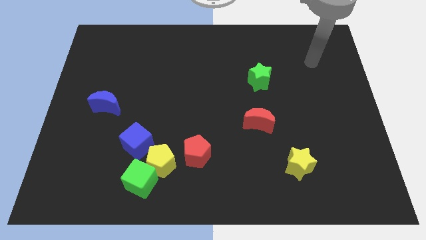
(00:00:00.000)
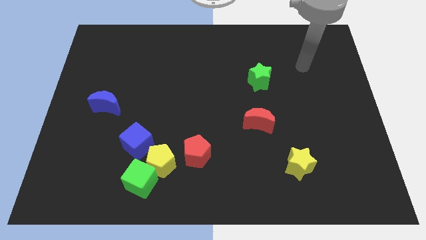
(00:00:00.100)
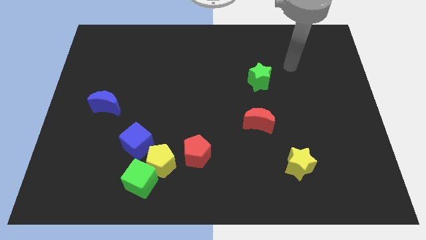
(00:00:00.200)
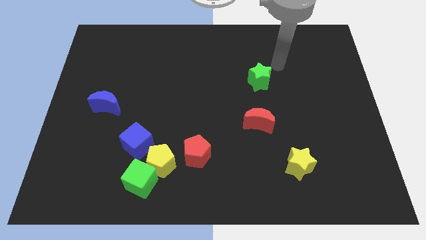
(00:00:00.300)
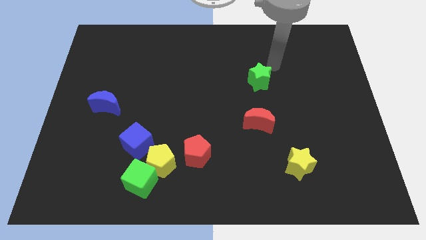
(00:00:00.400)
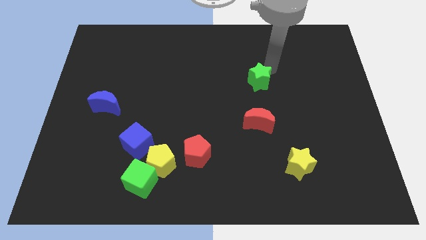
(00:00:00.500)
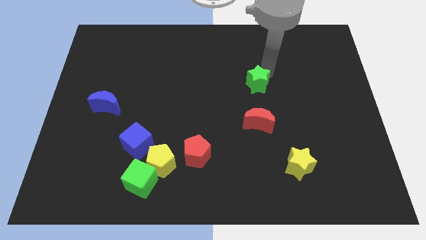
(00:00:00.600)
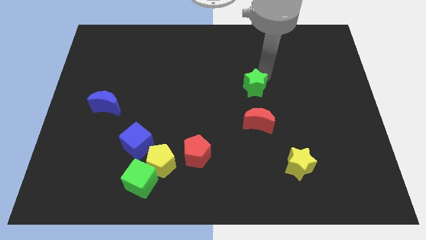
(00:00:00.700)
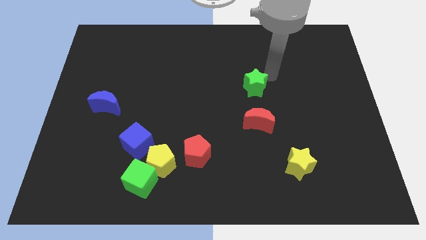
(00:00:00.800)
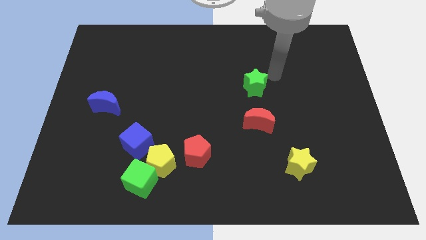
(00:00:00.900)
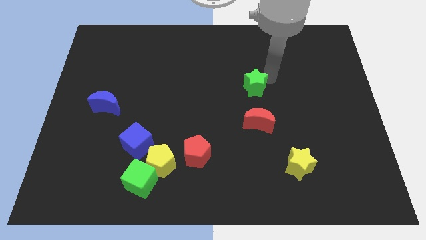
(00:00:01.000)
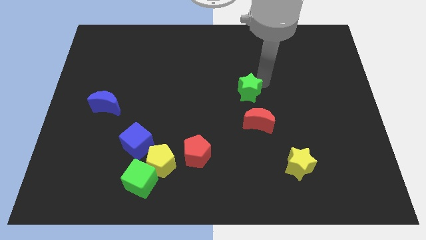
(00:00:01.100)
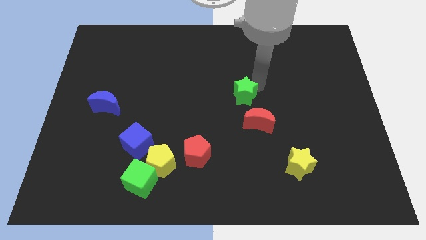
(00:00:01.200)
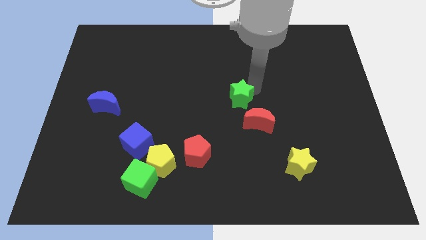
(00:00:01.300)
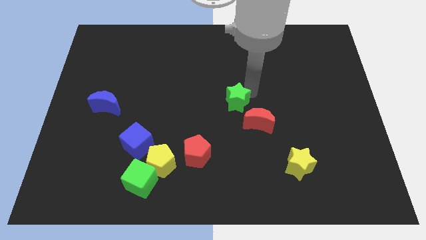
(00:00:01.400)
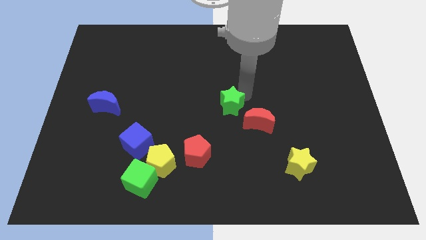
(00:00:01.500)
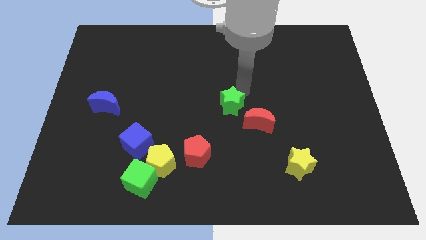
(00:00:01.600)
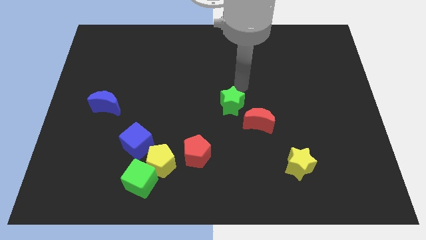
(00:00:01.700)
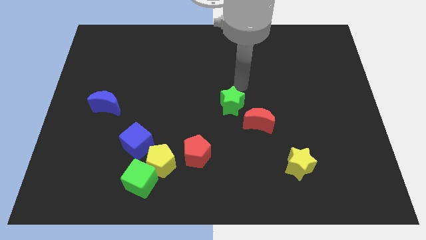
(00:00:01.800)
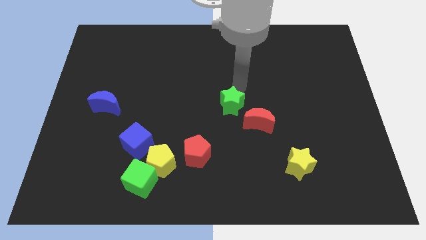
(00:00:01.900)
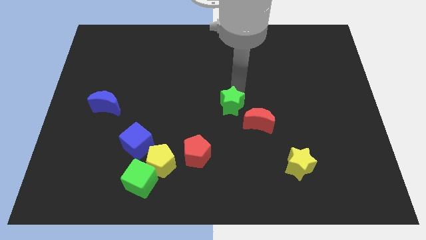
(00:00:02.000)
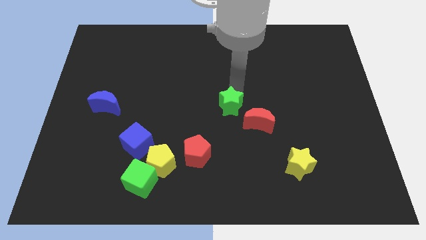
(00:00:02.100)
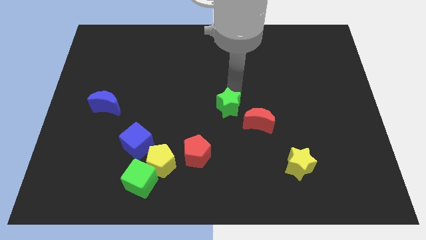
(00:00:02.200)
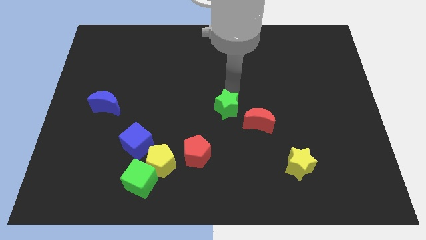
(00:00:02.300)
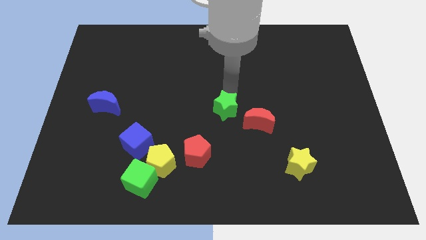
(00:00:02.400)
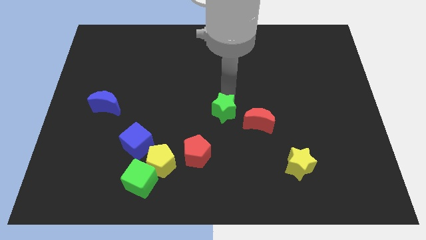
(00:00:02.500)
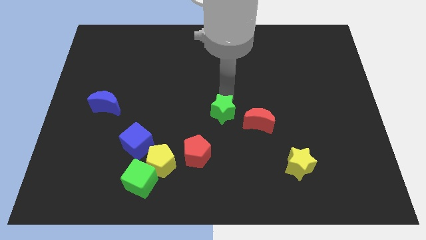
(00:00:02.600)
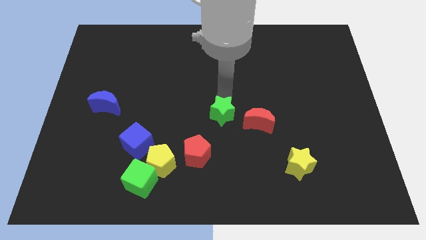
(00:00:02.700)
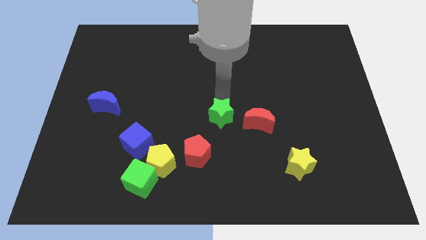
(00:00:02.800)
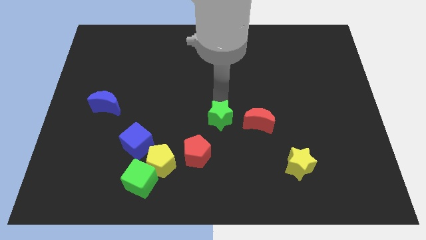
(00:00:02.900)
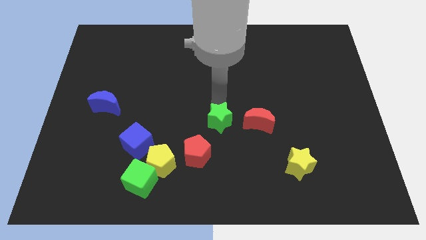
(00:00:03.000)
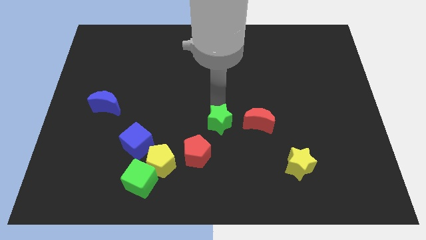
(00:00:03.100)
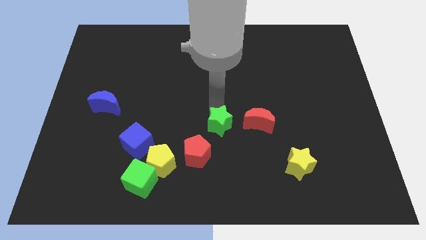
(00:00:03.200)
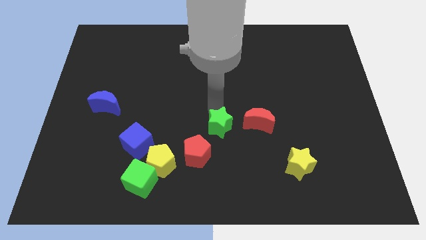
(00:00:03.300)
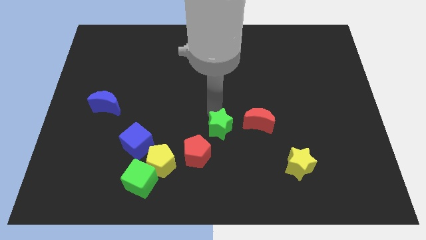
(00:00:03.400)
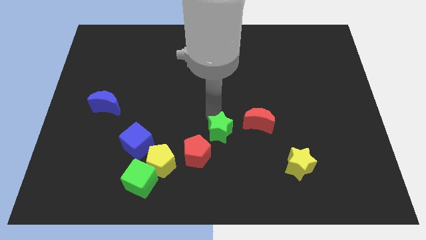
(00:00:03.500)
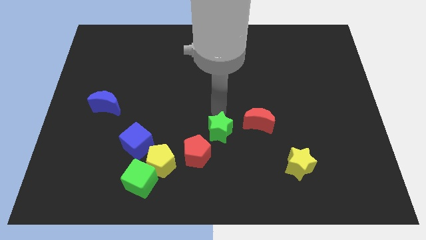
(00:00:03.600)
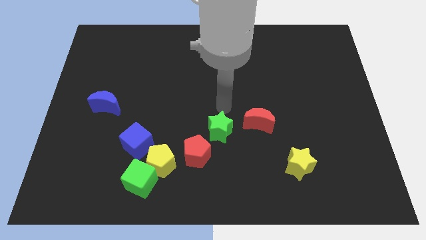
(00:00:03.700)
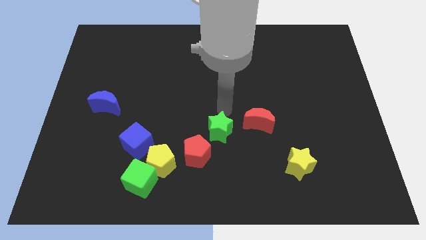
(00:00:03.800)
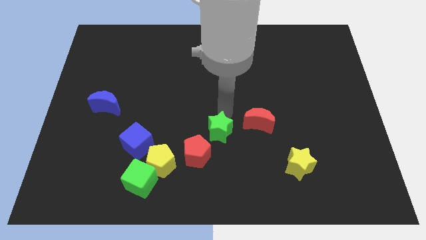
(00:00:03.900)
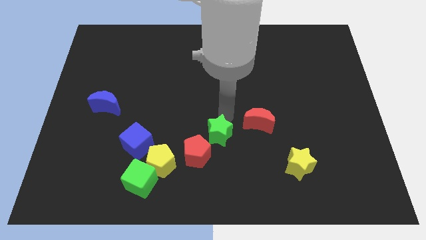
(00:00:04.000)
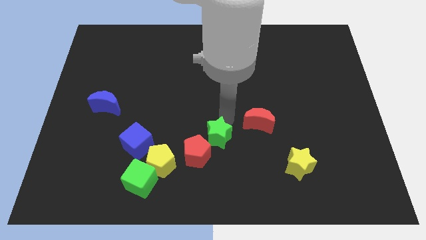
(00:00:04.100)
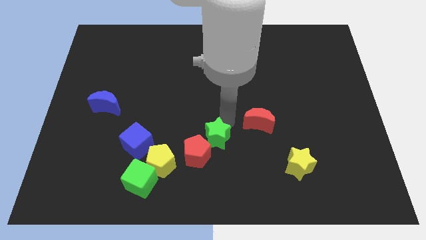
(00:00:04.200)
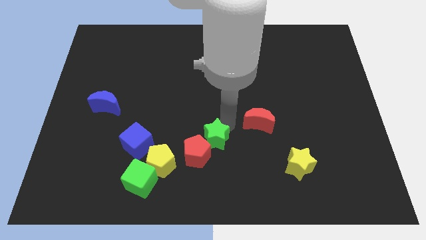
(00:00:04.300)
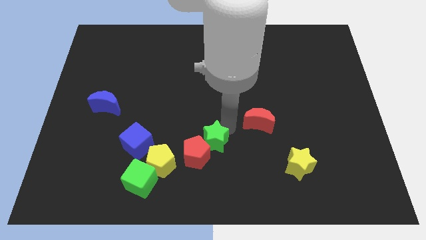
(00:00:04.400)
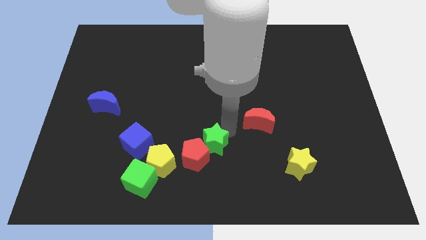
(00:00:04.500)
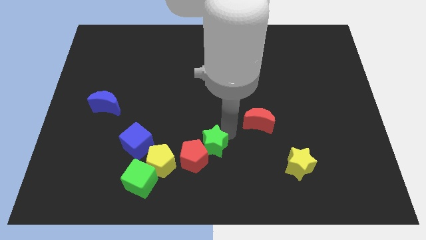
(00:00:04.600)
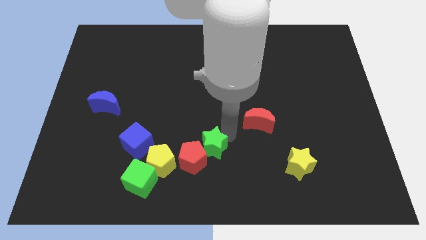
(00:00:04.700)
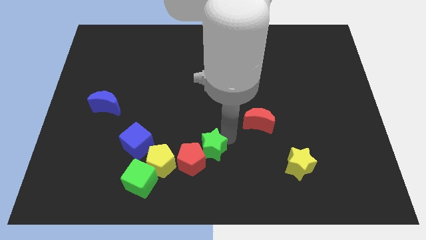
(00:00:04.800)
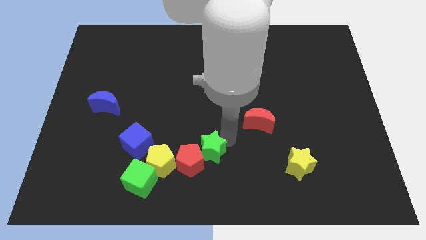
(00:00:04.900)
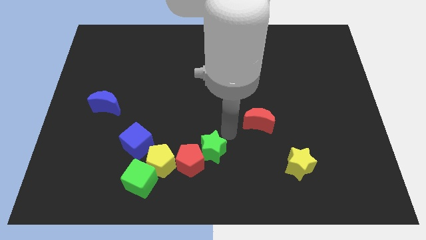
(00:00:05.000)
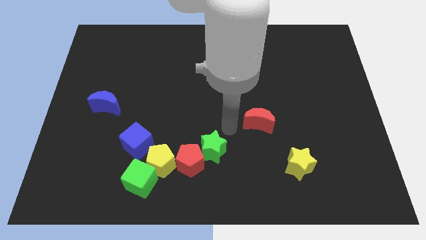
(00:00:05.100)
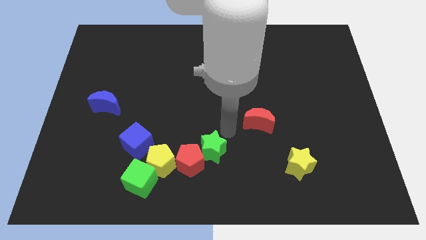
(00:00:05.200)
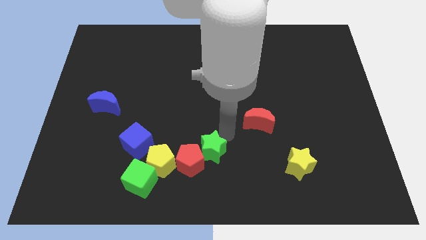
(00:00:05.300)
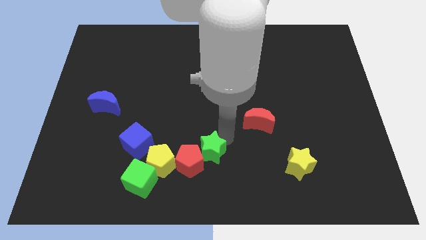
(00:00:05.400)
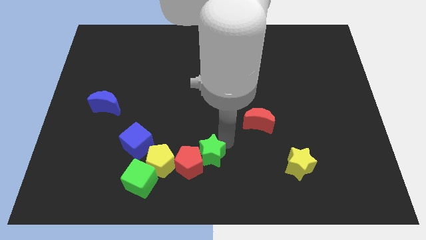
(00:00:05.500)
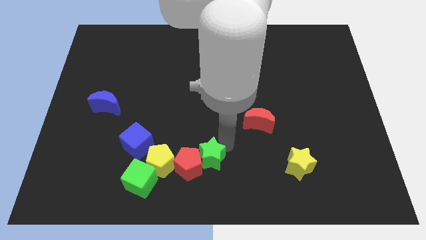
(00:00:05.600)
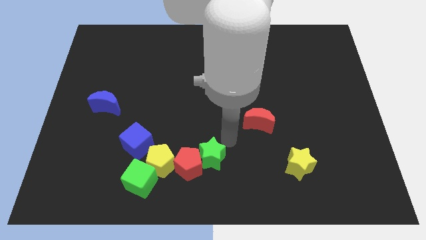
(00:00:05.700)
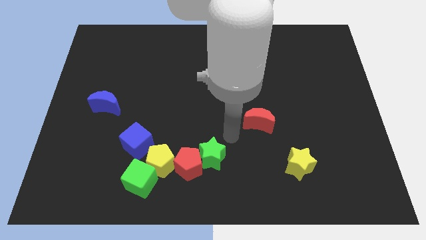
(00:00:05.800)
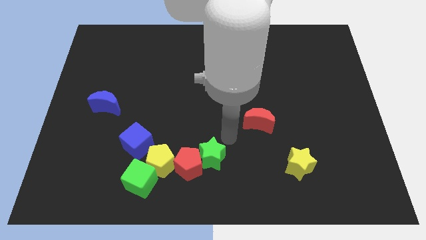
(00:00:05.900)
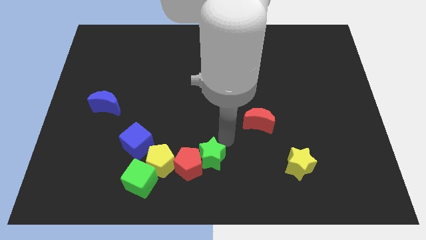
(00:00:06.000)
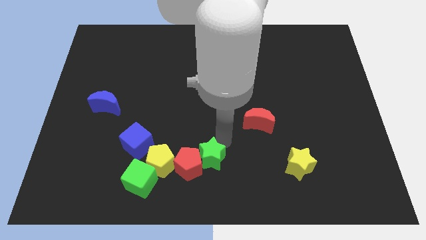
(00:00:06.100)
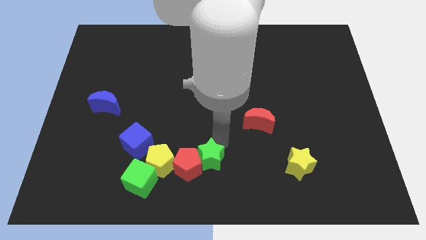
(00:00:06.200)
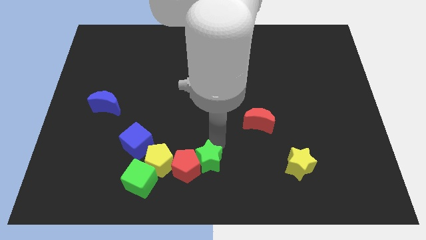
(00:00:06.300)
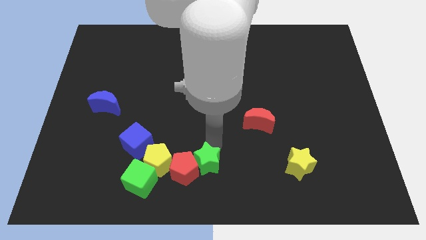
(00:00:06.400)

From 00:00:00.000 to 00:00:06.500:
push the green star just right of the green cube

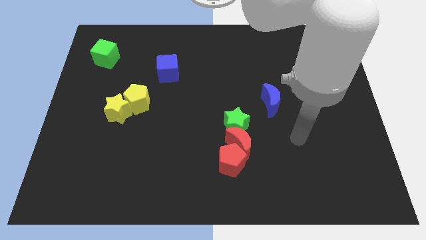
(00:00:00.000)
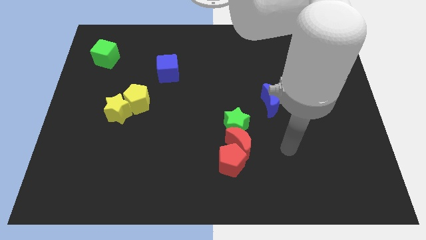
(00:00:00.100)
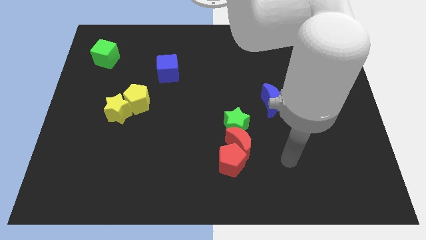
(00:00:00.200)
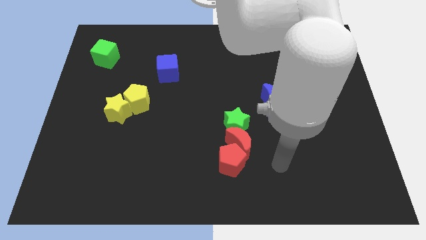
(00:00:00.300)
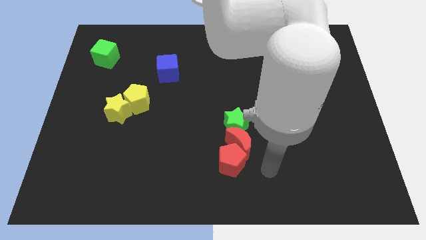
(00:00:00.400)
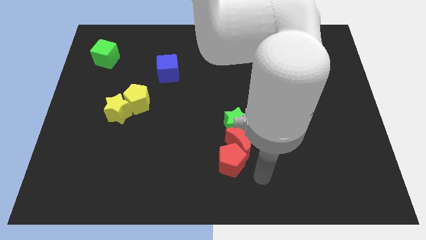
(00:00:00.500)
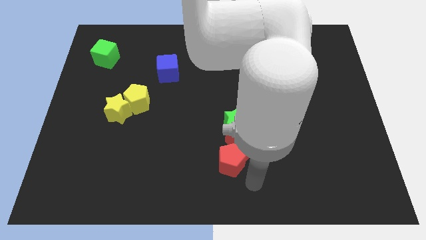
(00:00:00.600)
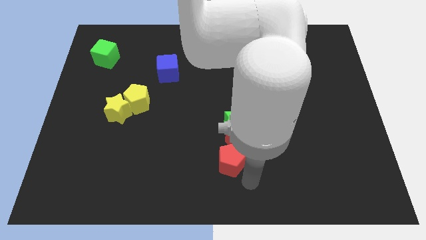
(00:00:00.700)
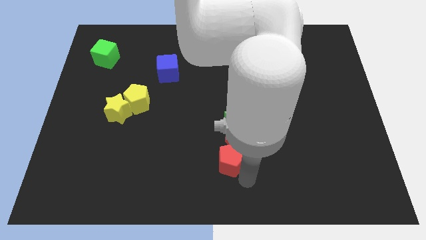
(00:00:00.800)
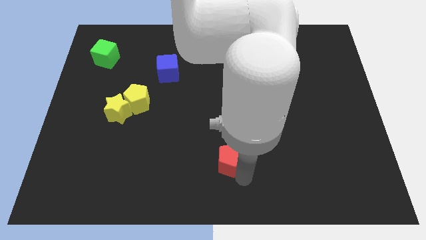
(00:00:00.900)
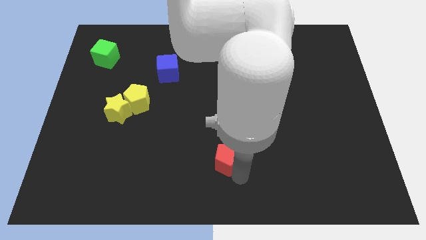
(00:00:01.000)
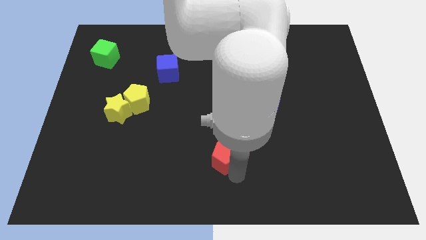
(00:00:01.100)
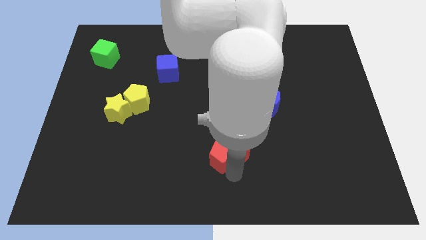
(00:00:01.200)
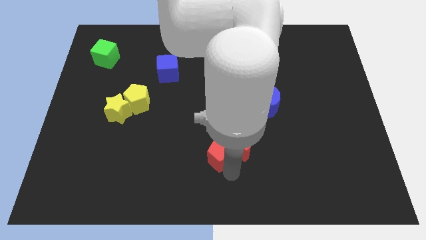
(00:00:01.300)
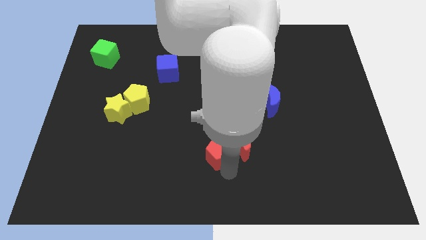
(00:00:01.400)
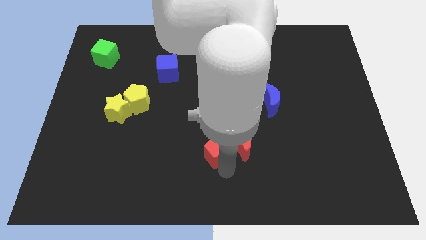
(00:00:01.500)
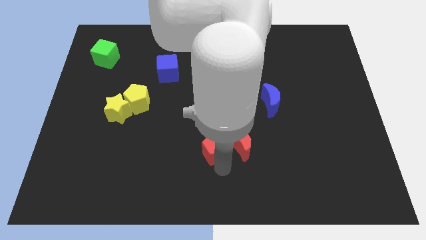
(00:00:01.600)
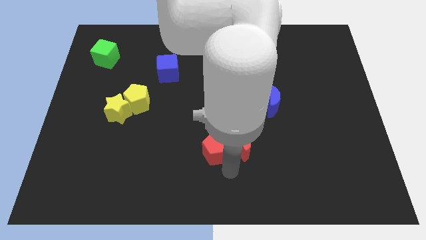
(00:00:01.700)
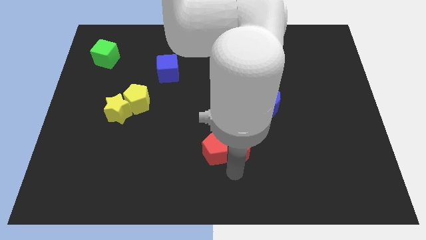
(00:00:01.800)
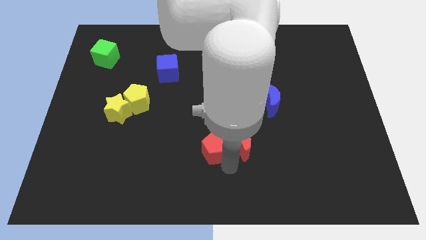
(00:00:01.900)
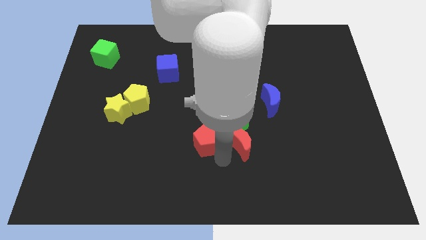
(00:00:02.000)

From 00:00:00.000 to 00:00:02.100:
put the red pentagon just left of the green star
